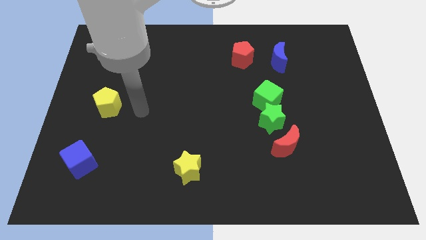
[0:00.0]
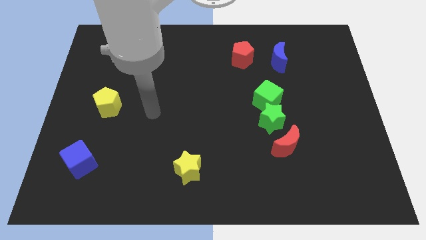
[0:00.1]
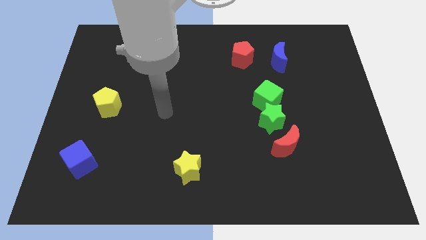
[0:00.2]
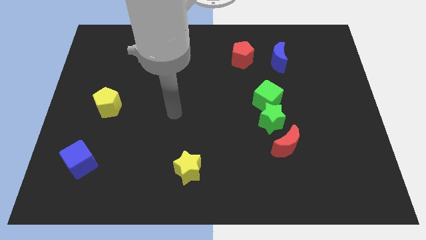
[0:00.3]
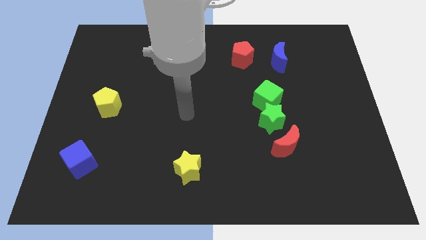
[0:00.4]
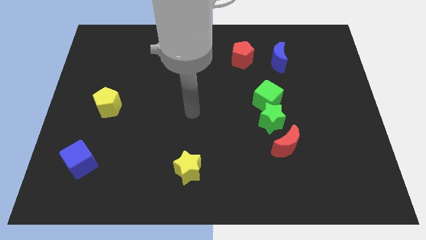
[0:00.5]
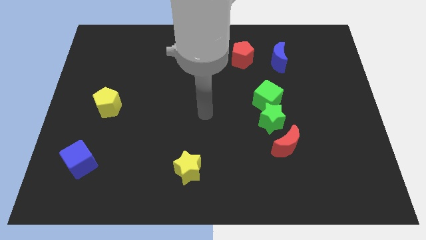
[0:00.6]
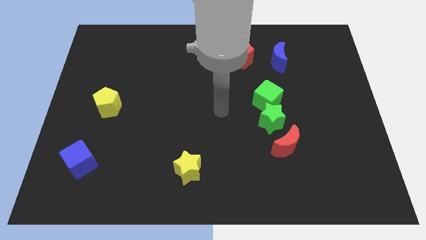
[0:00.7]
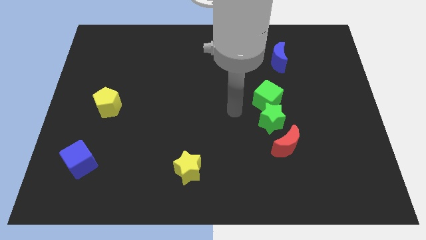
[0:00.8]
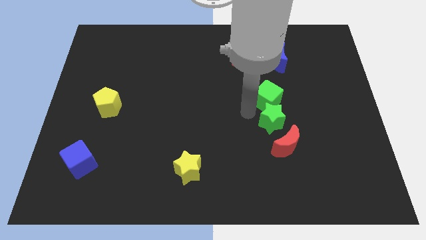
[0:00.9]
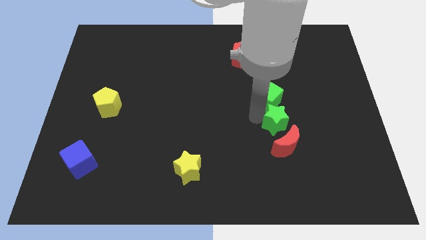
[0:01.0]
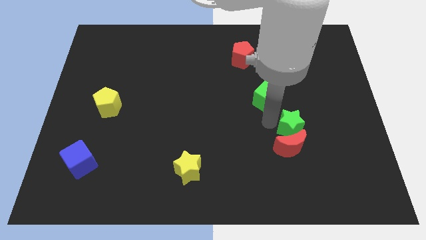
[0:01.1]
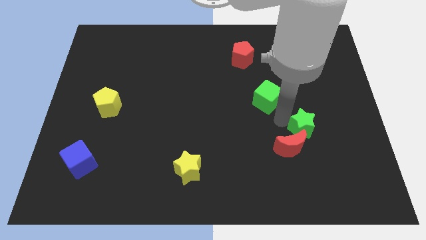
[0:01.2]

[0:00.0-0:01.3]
move the green cube away from the green star

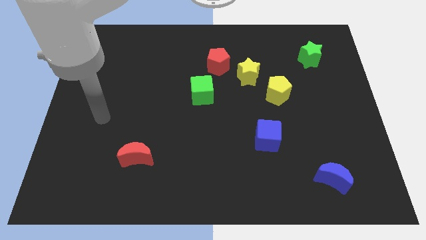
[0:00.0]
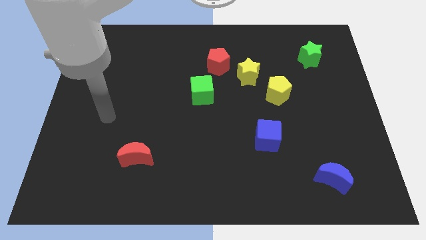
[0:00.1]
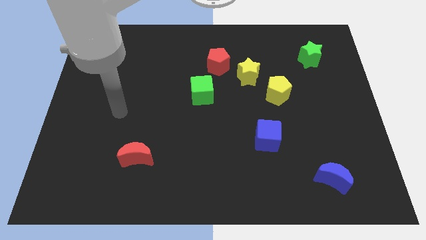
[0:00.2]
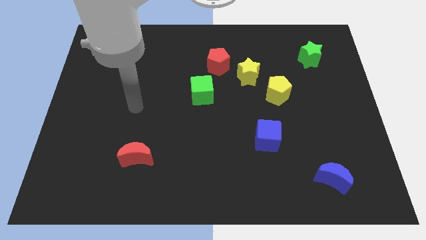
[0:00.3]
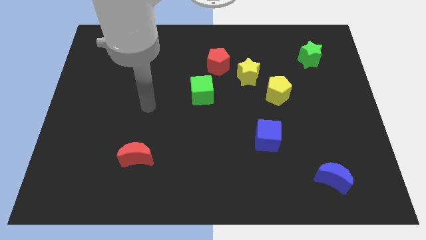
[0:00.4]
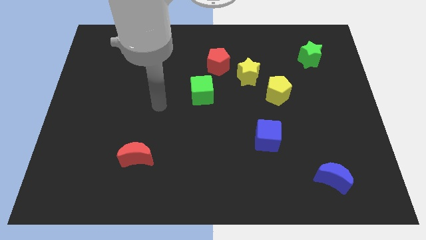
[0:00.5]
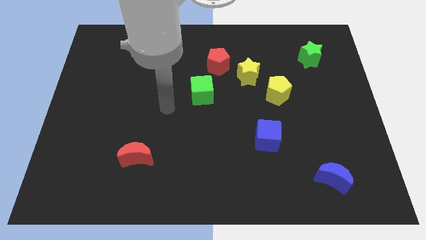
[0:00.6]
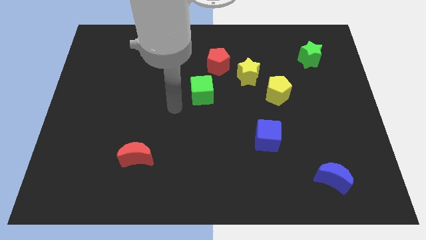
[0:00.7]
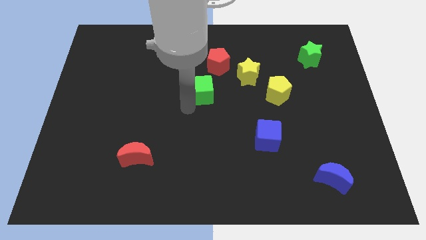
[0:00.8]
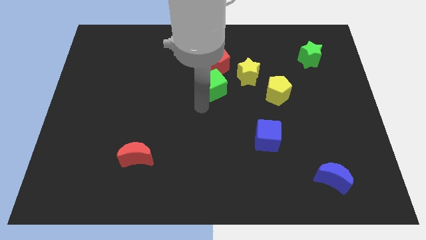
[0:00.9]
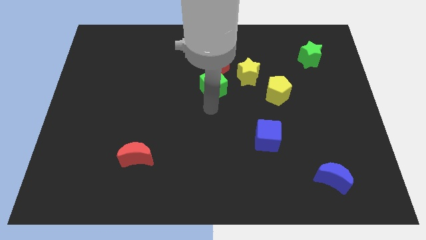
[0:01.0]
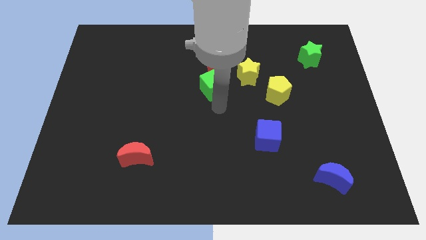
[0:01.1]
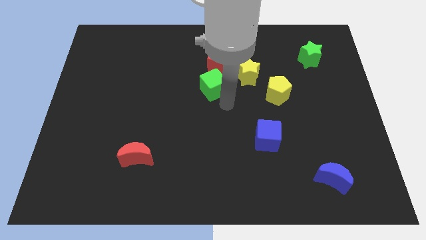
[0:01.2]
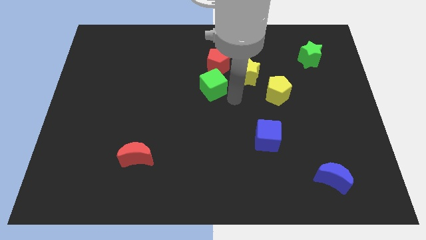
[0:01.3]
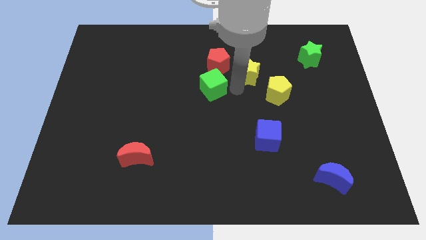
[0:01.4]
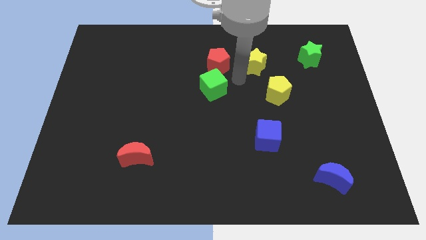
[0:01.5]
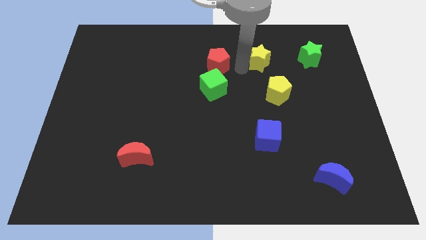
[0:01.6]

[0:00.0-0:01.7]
move the red pentagon away from the yellow star

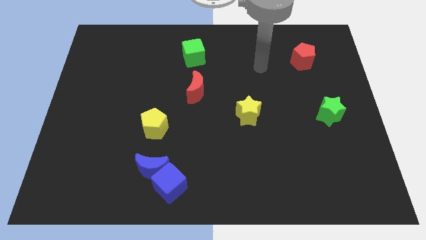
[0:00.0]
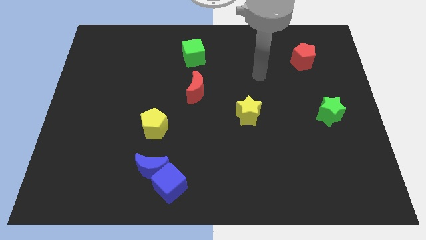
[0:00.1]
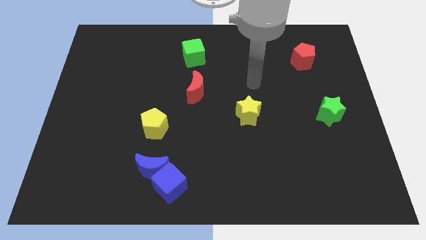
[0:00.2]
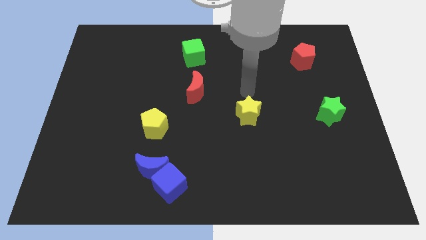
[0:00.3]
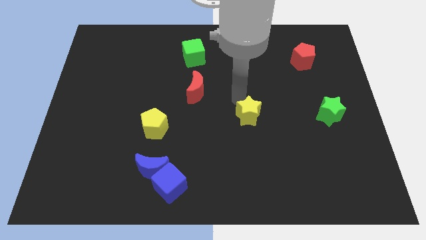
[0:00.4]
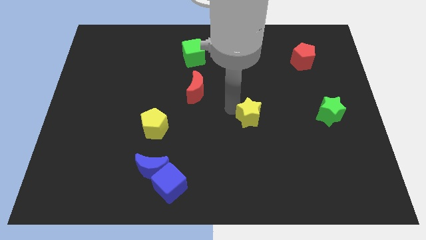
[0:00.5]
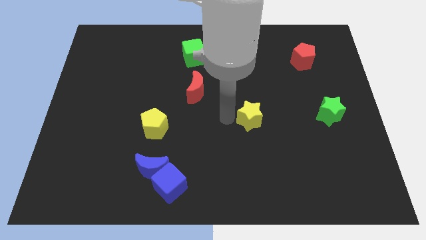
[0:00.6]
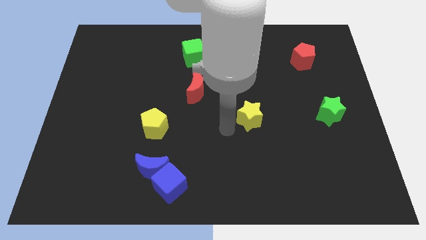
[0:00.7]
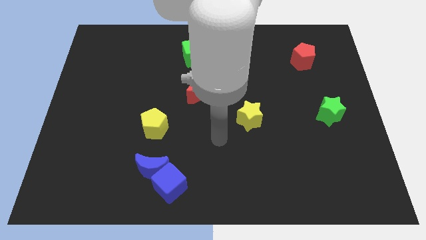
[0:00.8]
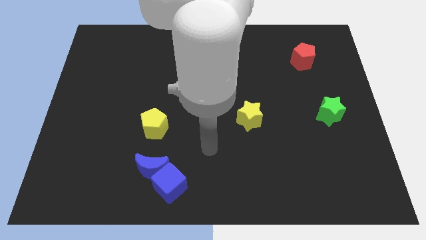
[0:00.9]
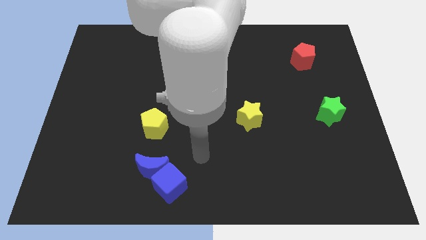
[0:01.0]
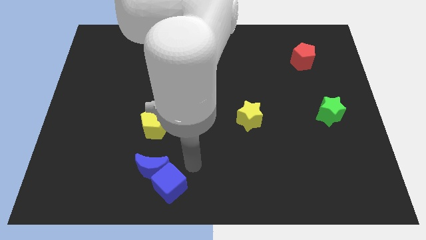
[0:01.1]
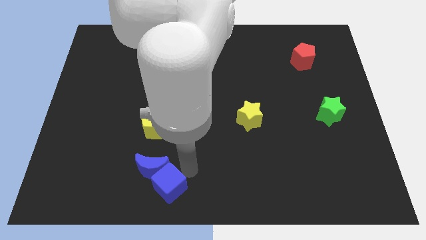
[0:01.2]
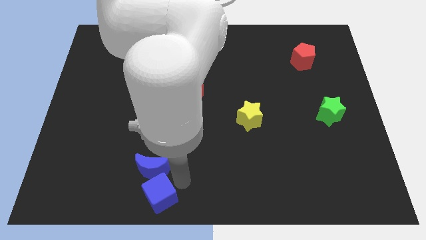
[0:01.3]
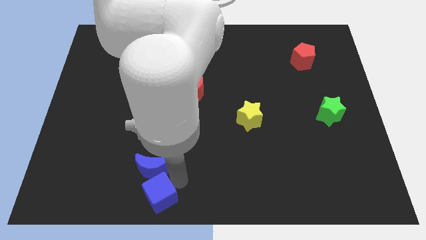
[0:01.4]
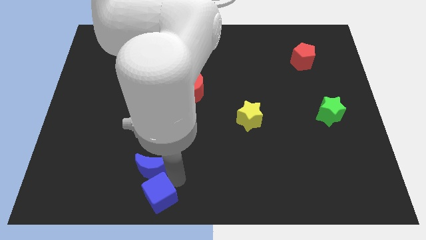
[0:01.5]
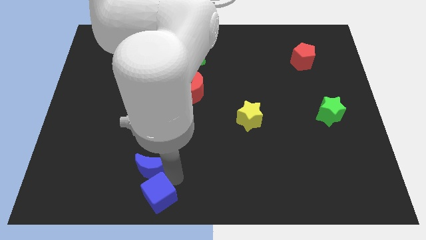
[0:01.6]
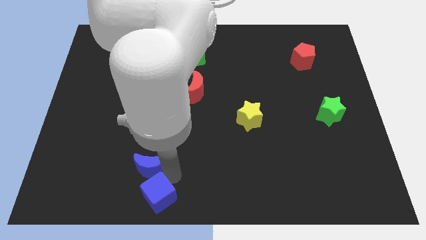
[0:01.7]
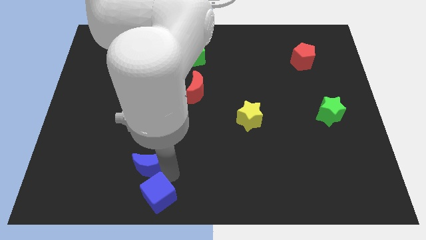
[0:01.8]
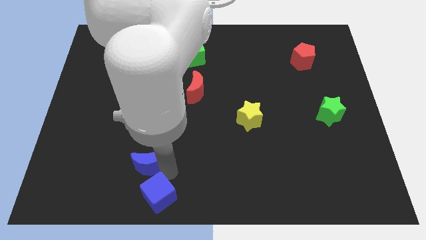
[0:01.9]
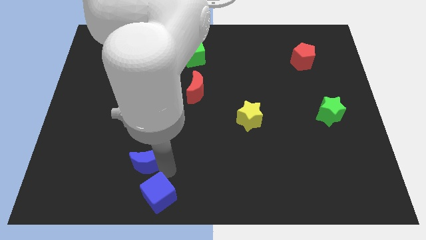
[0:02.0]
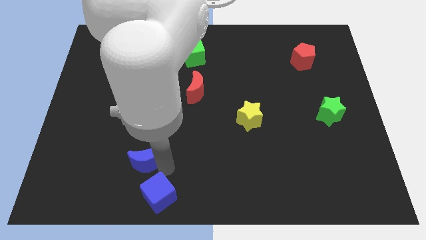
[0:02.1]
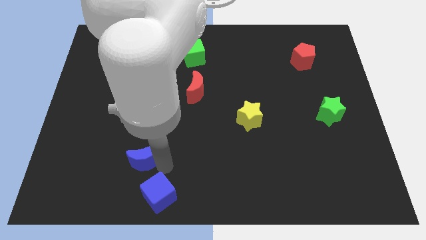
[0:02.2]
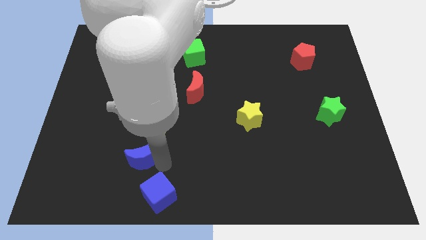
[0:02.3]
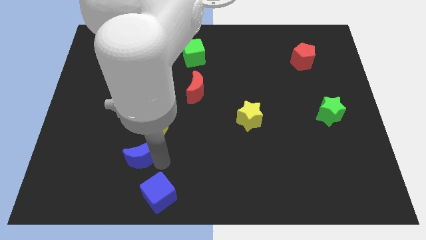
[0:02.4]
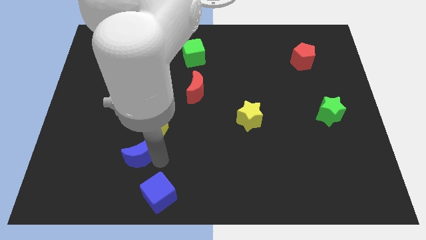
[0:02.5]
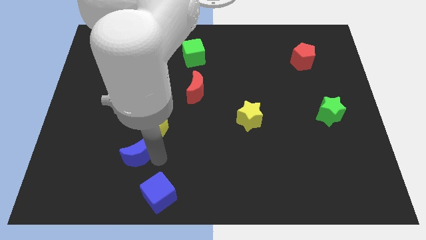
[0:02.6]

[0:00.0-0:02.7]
move the blue moon away from the blue cube

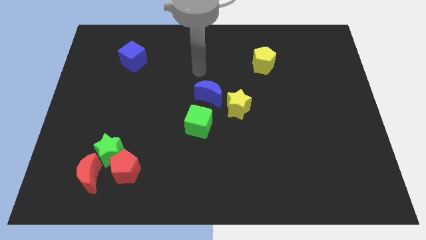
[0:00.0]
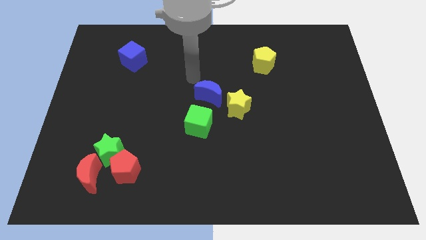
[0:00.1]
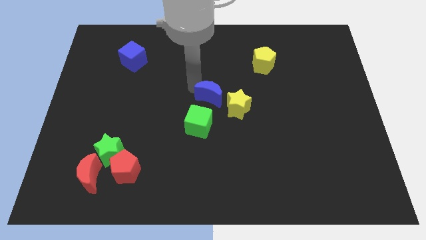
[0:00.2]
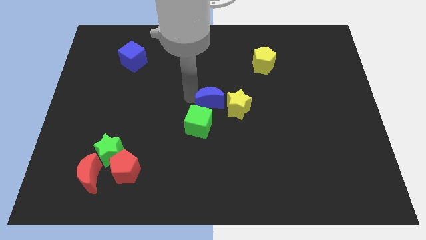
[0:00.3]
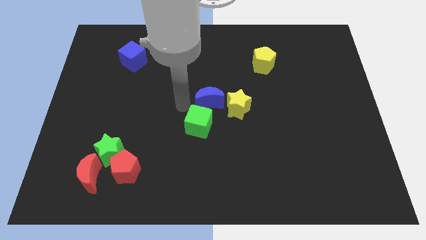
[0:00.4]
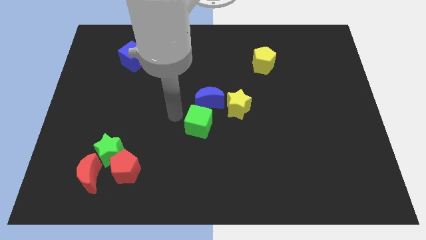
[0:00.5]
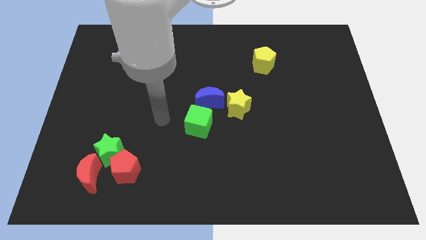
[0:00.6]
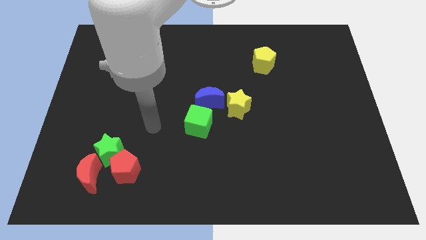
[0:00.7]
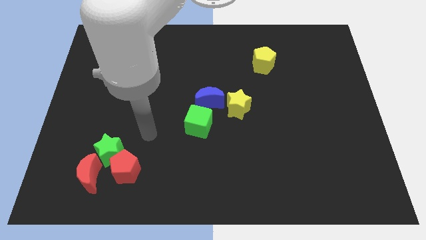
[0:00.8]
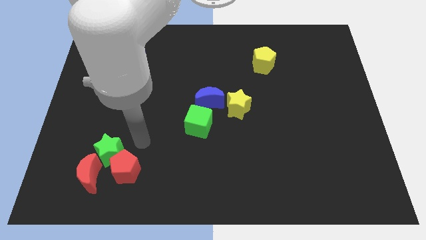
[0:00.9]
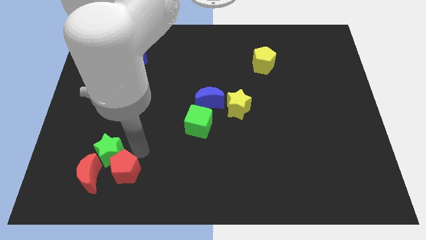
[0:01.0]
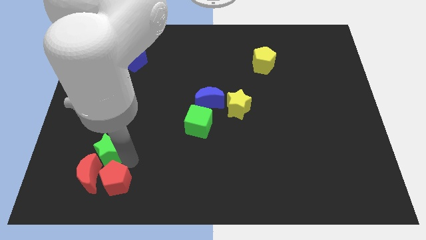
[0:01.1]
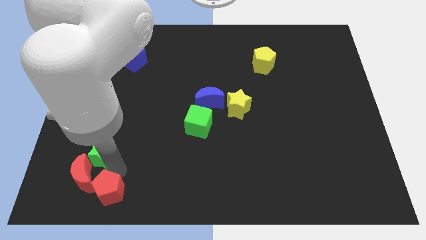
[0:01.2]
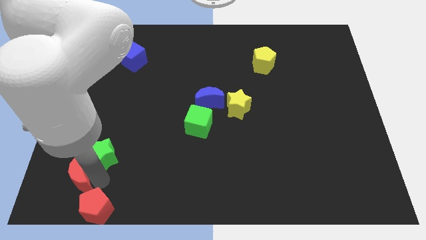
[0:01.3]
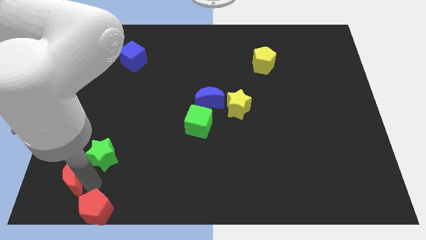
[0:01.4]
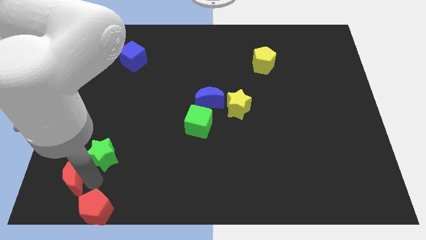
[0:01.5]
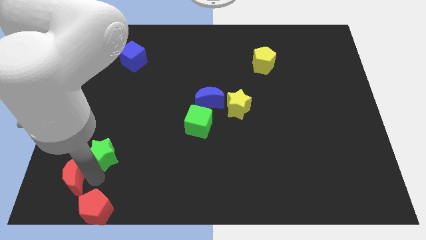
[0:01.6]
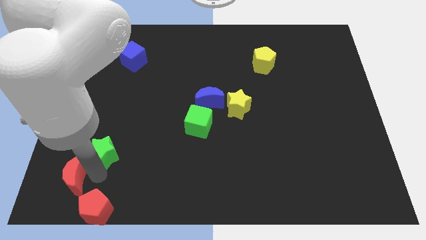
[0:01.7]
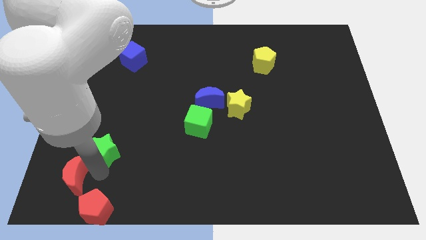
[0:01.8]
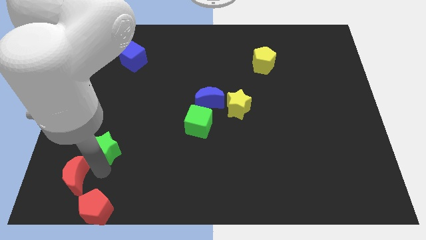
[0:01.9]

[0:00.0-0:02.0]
separate the green star from the red pentagon and red moon

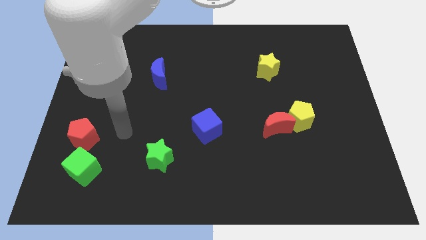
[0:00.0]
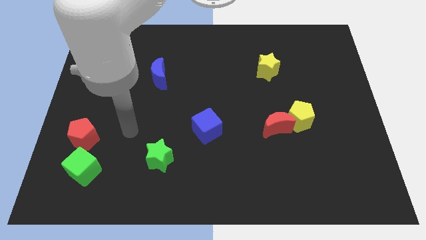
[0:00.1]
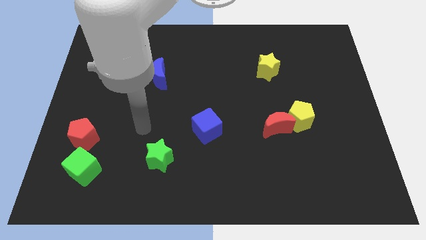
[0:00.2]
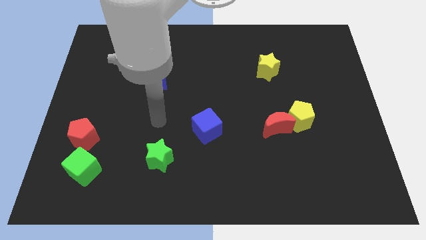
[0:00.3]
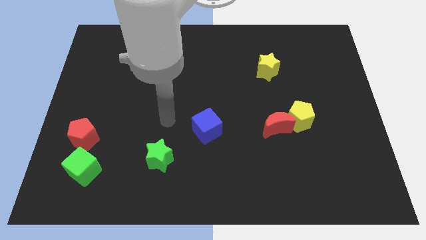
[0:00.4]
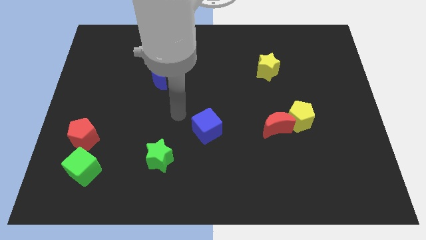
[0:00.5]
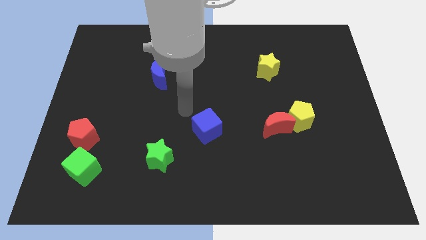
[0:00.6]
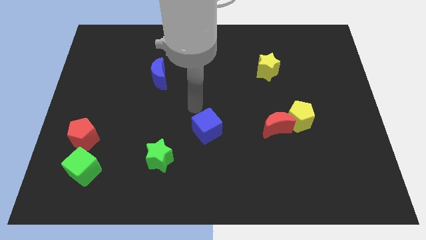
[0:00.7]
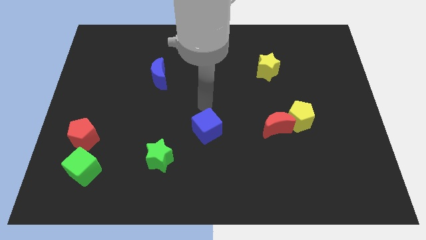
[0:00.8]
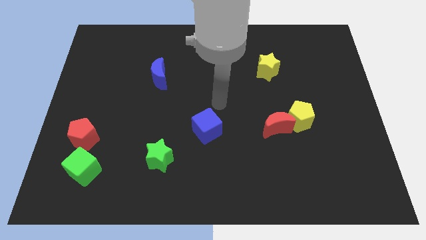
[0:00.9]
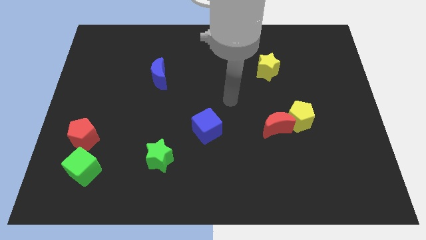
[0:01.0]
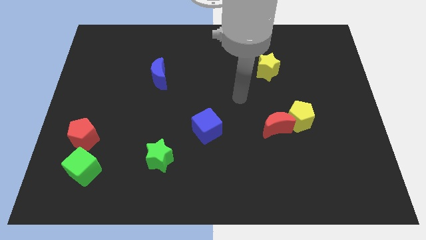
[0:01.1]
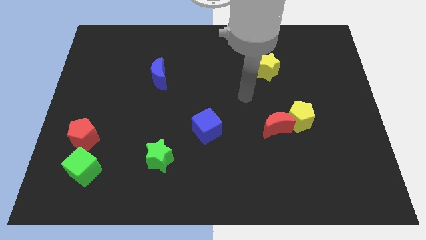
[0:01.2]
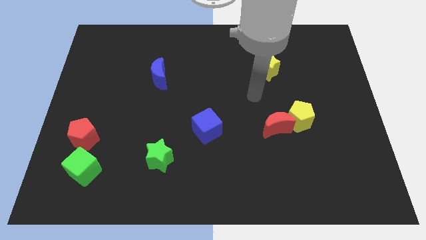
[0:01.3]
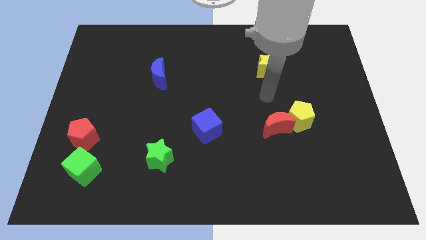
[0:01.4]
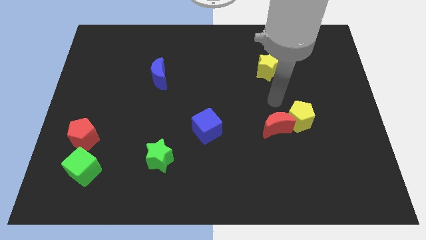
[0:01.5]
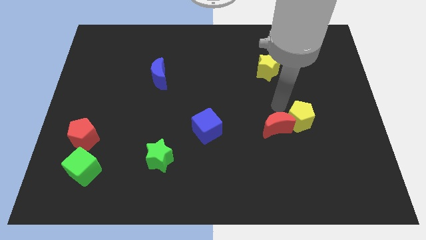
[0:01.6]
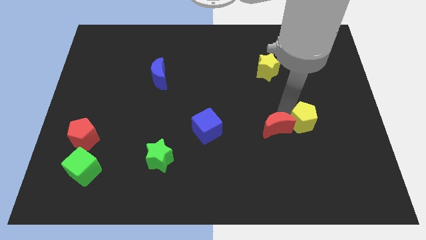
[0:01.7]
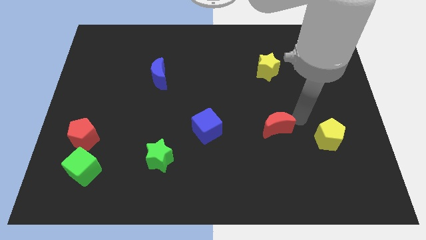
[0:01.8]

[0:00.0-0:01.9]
separate the red moon from the yellow pentagon
